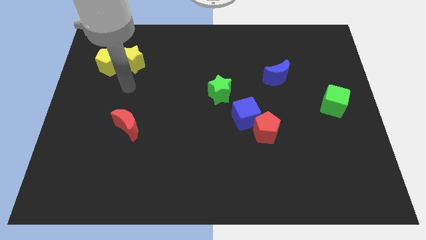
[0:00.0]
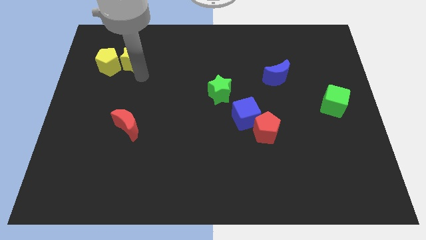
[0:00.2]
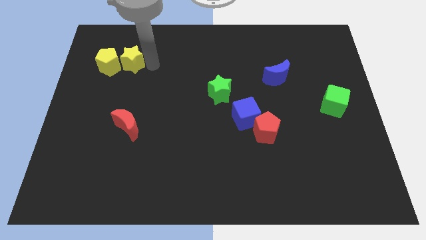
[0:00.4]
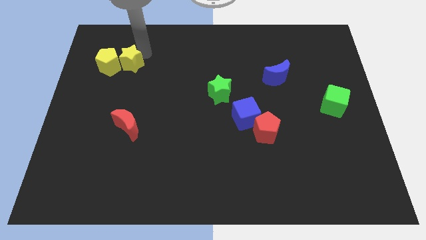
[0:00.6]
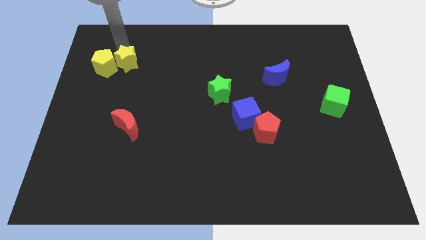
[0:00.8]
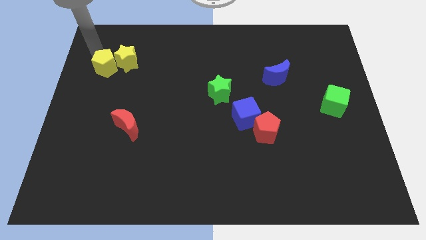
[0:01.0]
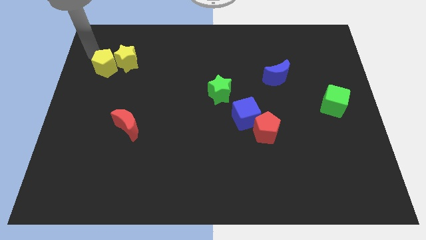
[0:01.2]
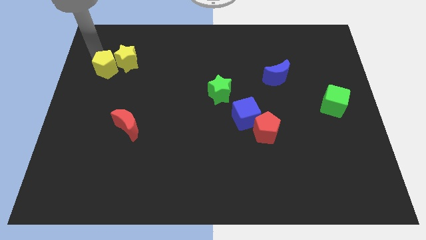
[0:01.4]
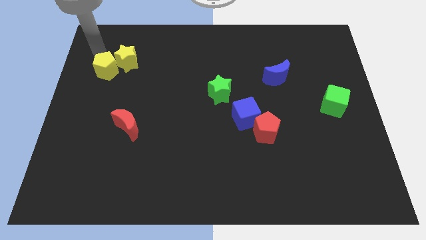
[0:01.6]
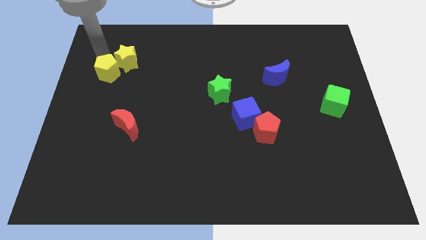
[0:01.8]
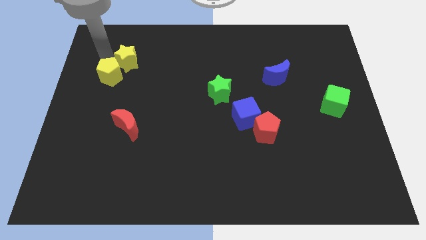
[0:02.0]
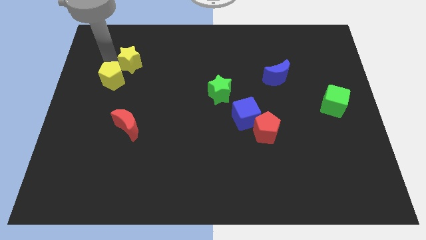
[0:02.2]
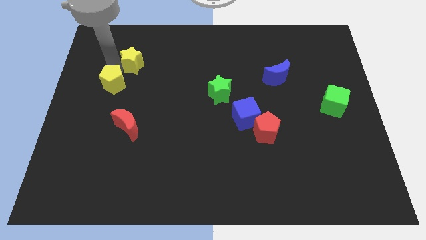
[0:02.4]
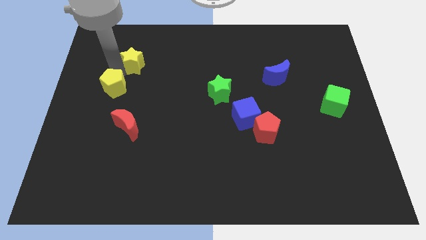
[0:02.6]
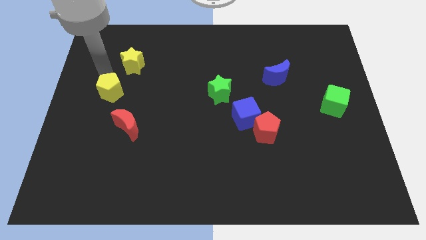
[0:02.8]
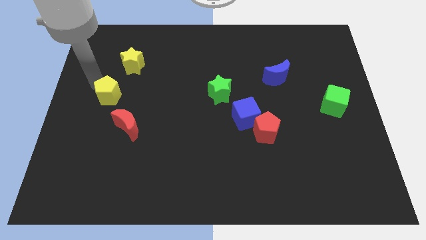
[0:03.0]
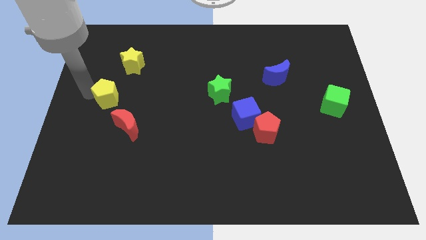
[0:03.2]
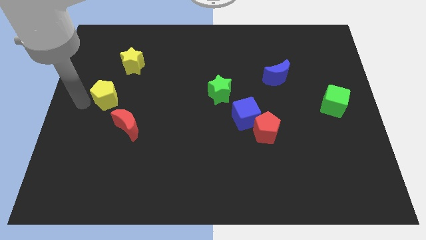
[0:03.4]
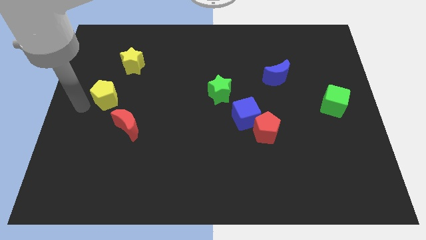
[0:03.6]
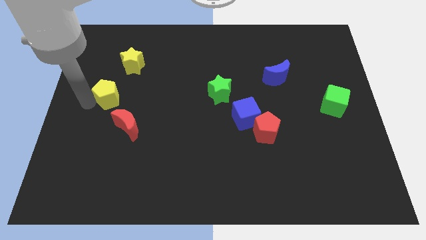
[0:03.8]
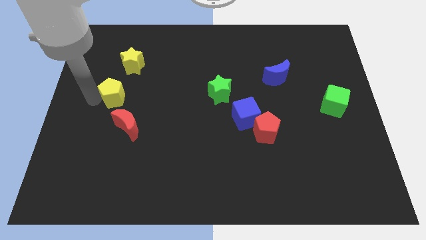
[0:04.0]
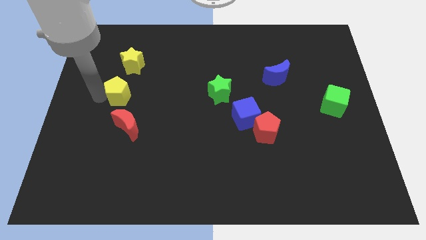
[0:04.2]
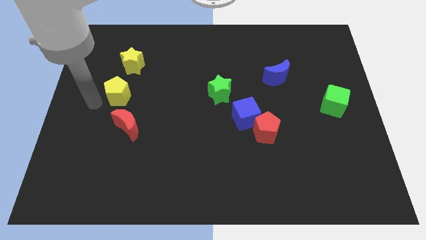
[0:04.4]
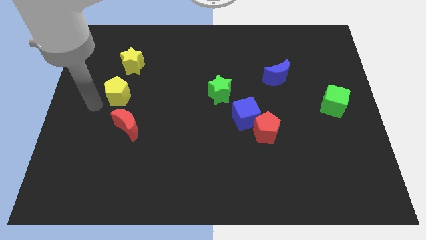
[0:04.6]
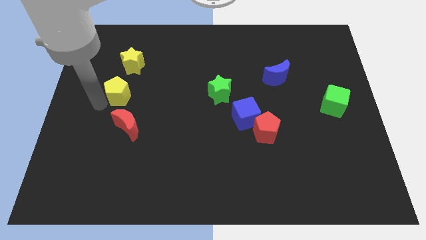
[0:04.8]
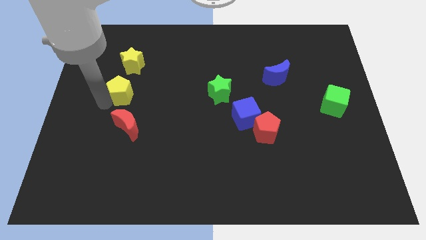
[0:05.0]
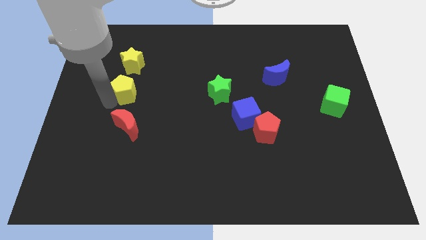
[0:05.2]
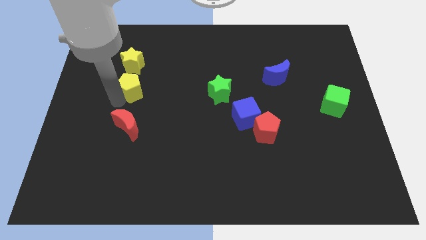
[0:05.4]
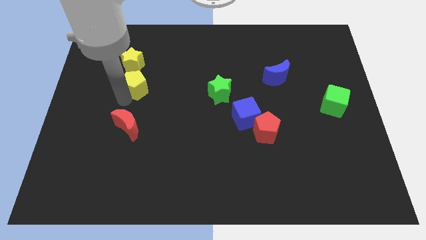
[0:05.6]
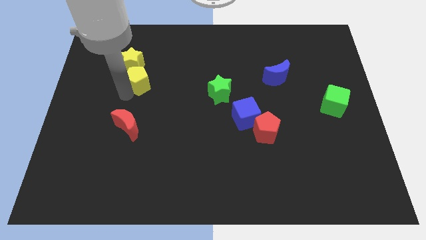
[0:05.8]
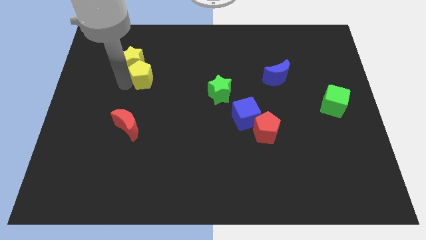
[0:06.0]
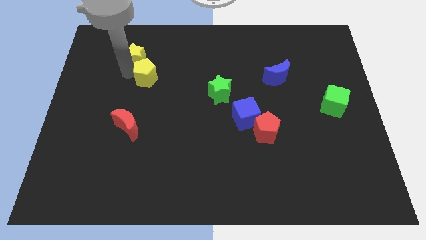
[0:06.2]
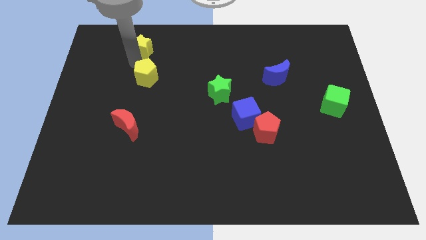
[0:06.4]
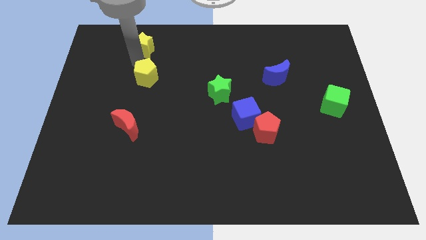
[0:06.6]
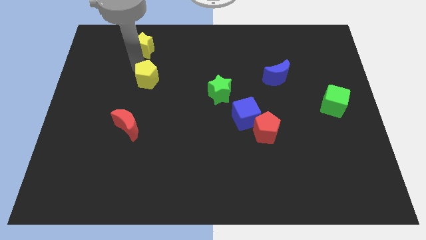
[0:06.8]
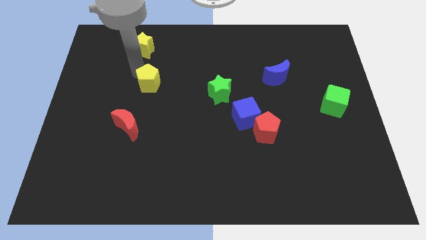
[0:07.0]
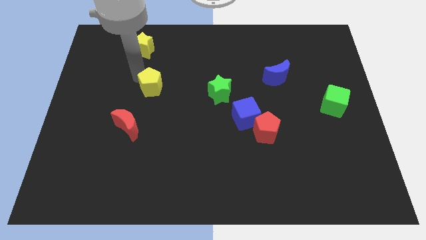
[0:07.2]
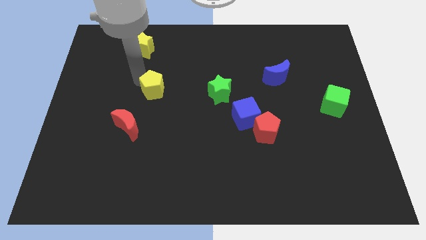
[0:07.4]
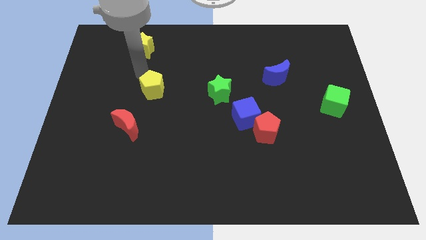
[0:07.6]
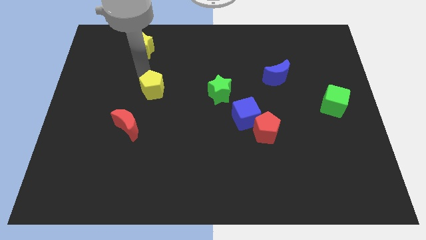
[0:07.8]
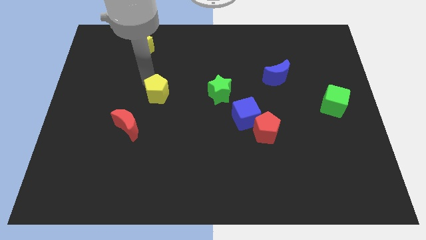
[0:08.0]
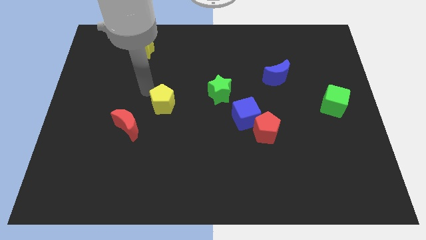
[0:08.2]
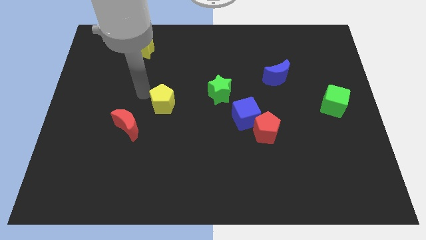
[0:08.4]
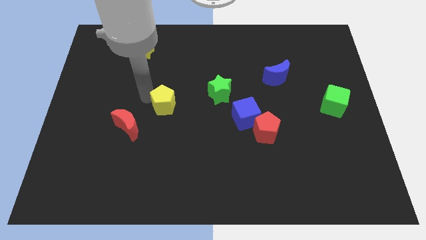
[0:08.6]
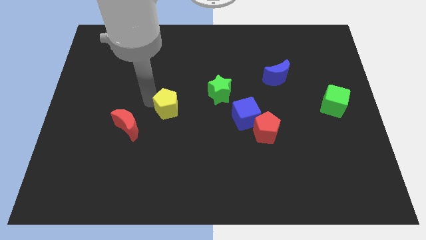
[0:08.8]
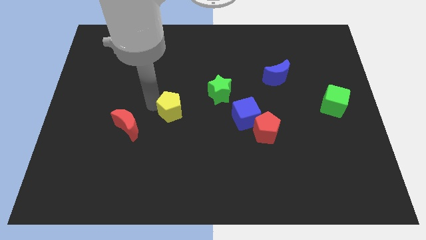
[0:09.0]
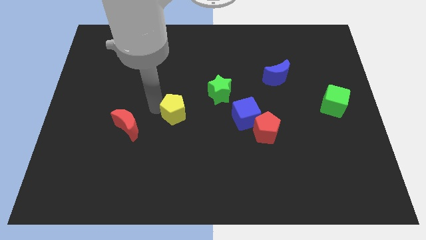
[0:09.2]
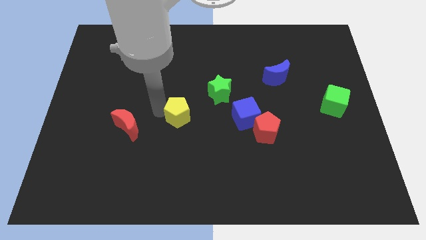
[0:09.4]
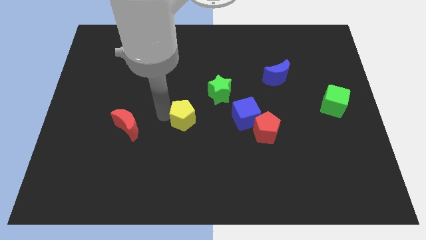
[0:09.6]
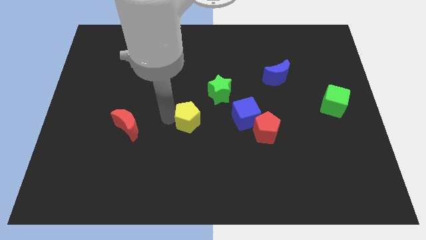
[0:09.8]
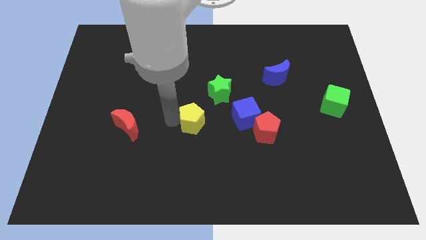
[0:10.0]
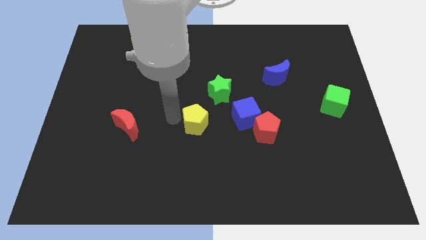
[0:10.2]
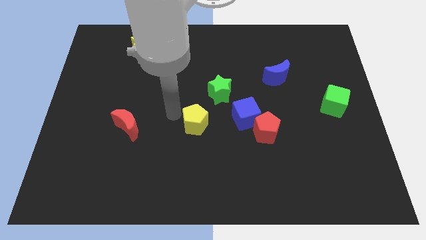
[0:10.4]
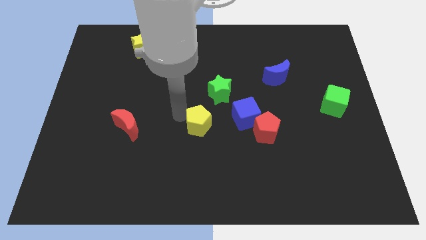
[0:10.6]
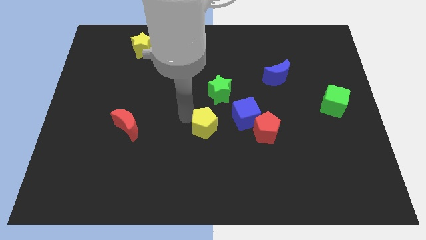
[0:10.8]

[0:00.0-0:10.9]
move the yellow pentagon to the bottom left of the blue cube

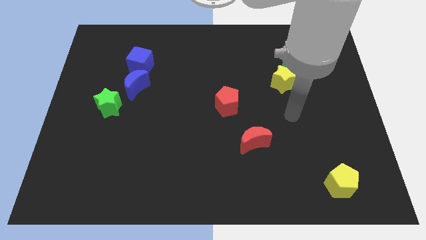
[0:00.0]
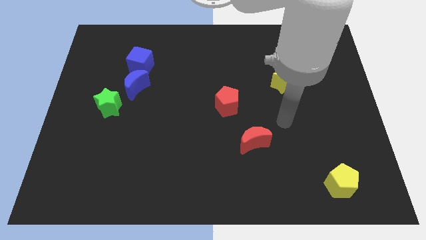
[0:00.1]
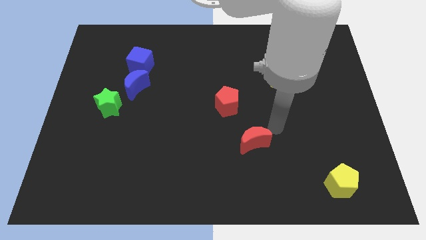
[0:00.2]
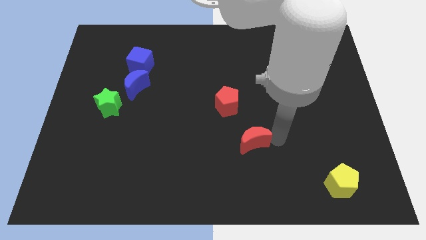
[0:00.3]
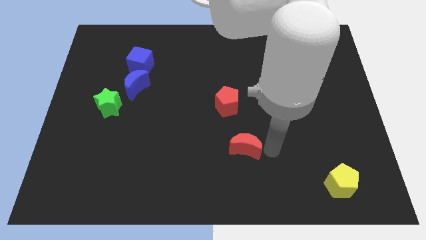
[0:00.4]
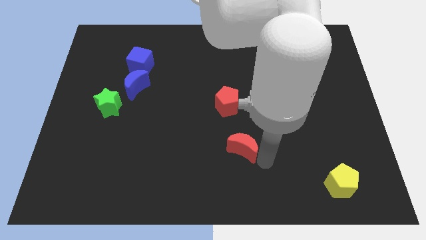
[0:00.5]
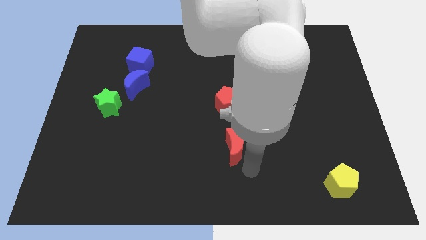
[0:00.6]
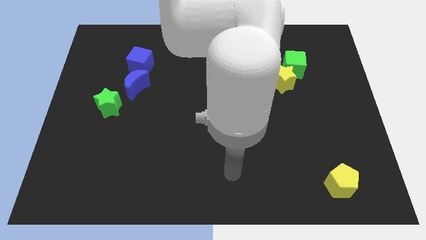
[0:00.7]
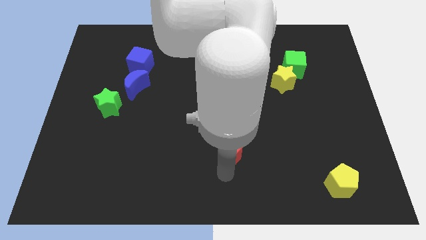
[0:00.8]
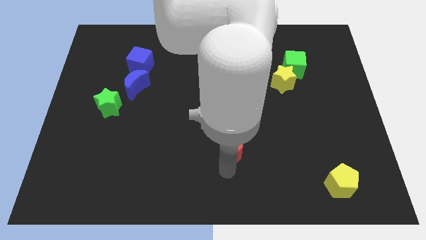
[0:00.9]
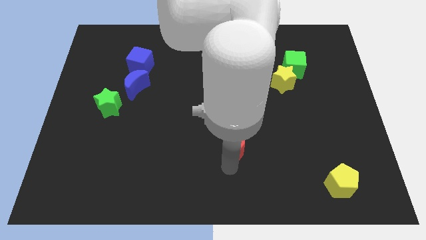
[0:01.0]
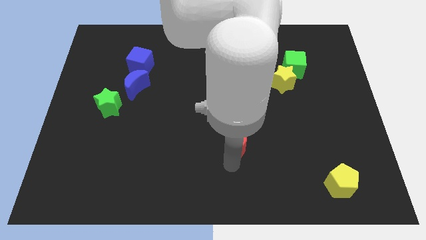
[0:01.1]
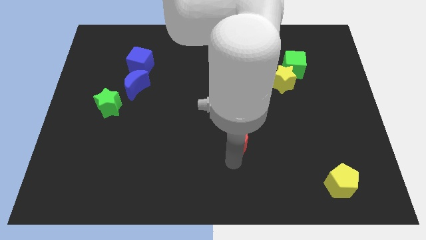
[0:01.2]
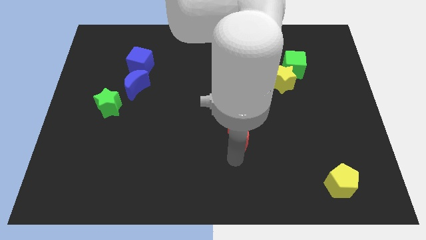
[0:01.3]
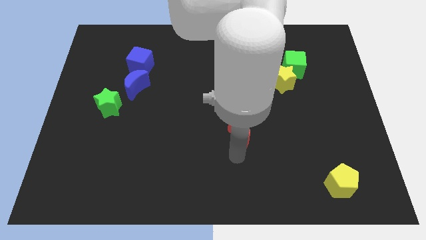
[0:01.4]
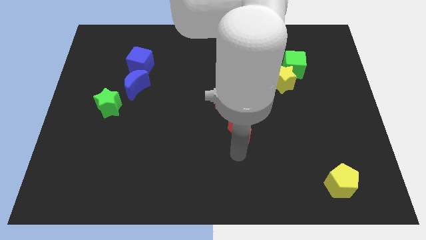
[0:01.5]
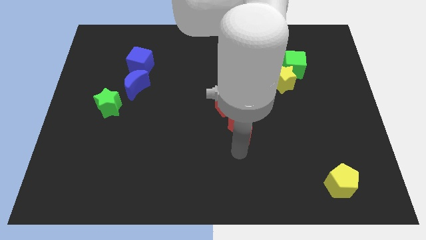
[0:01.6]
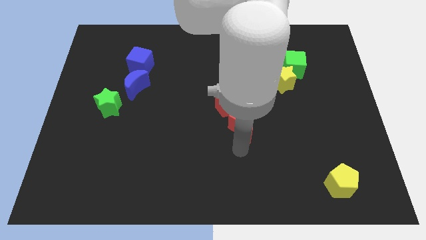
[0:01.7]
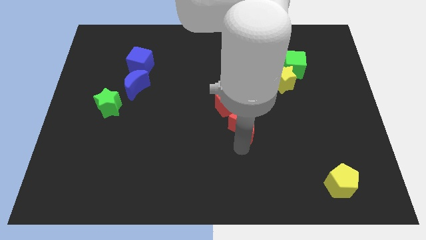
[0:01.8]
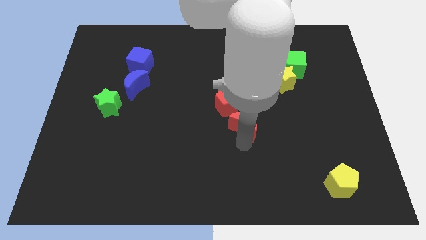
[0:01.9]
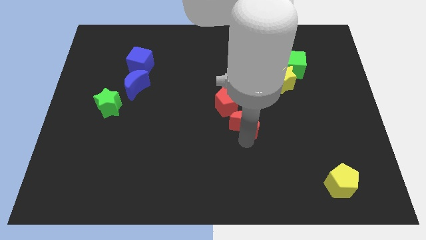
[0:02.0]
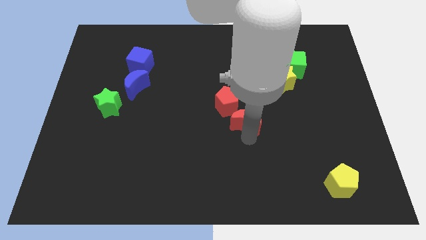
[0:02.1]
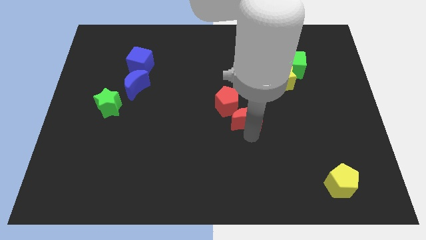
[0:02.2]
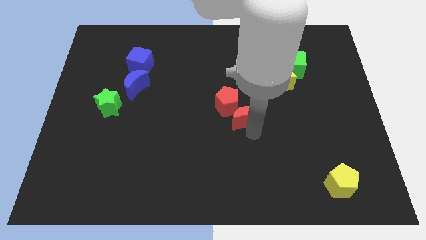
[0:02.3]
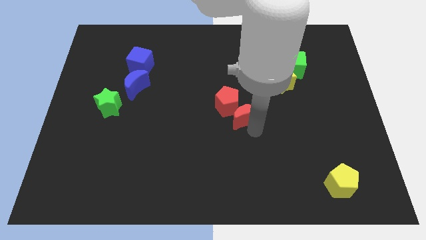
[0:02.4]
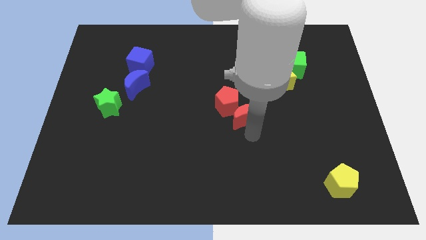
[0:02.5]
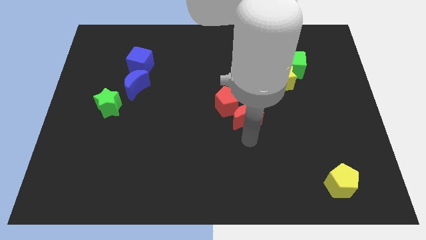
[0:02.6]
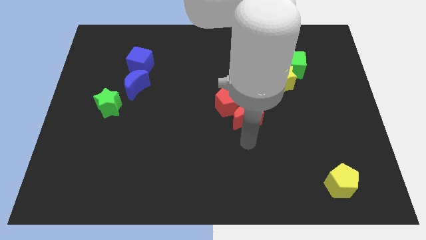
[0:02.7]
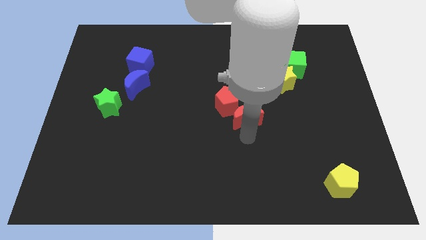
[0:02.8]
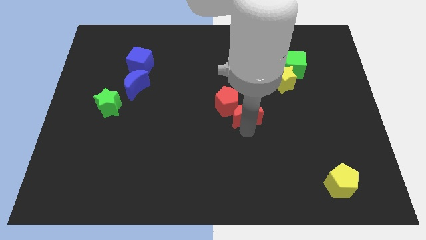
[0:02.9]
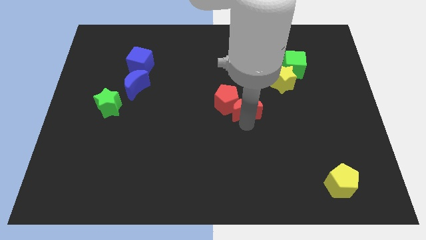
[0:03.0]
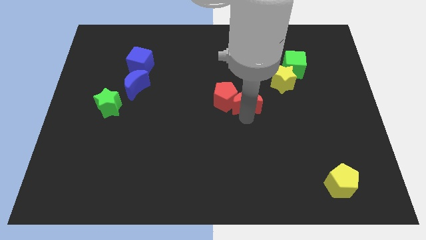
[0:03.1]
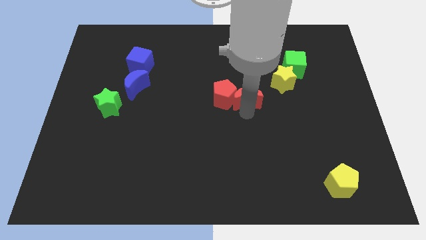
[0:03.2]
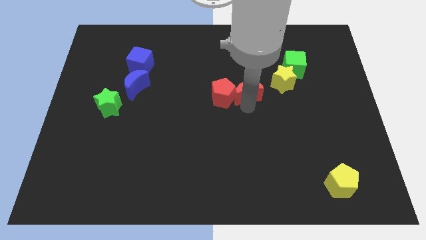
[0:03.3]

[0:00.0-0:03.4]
slide the red moon just left of the yellow star
